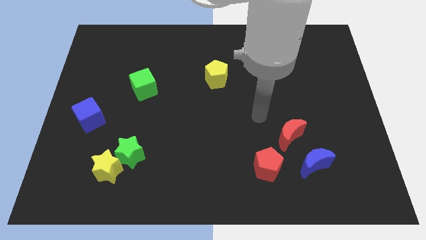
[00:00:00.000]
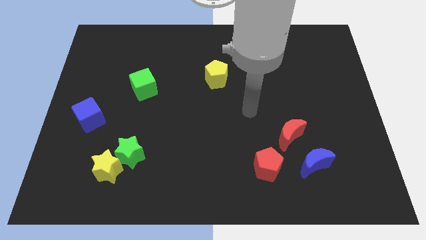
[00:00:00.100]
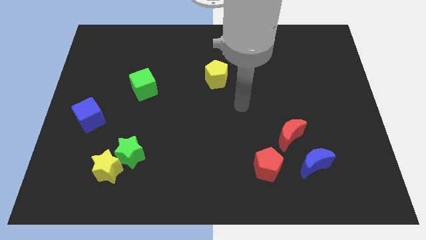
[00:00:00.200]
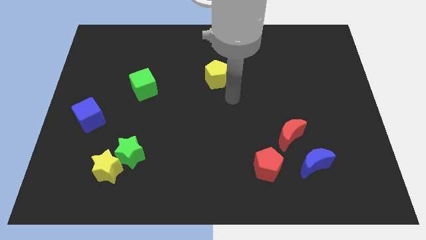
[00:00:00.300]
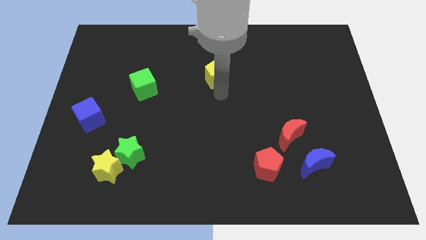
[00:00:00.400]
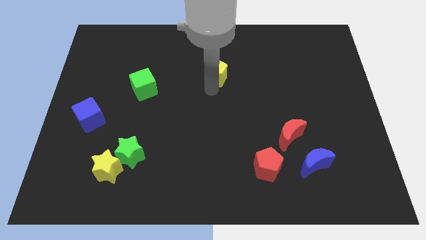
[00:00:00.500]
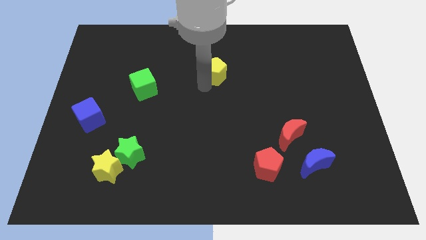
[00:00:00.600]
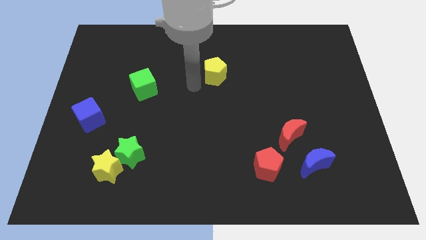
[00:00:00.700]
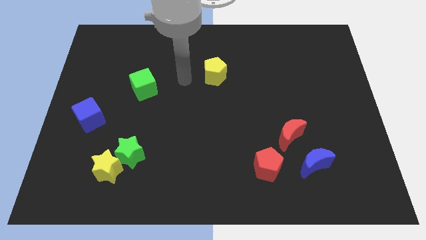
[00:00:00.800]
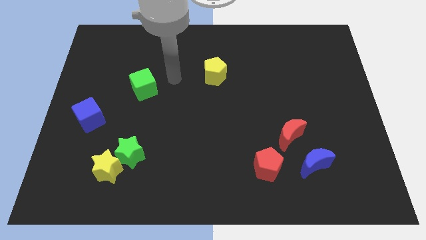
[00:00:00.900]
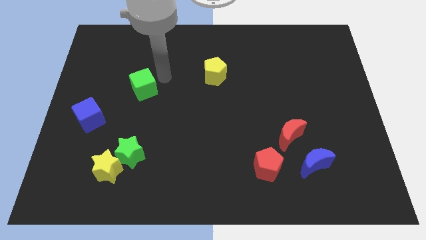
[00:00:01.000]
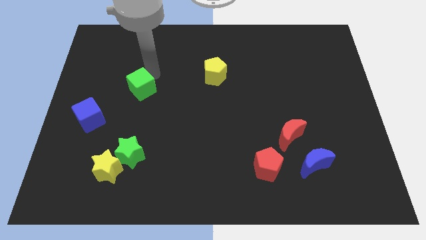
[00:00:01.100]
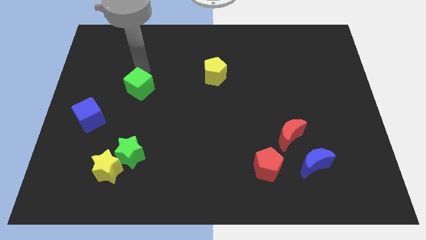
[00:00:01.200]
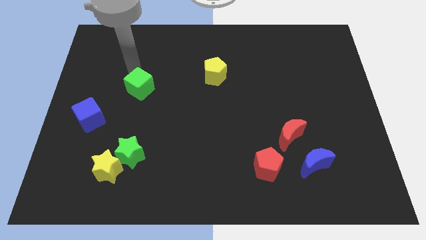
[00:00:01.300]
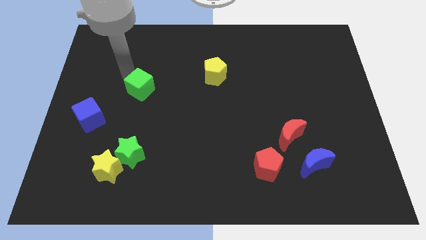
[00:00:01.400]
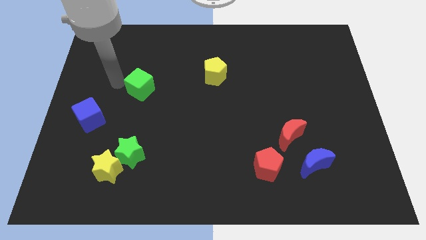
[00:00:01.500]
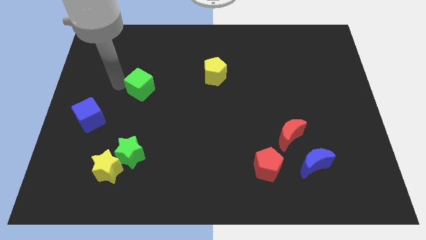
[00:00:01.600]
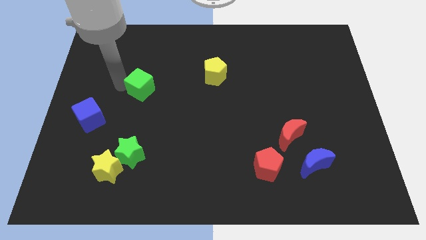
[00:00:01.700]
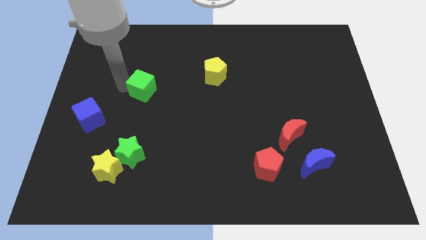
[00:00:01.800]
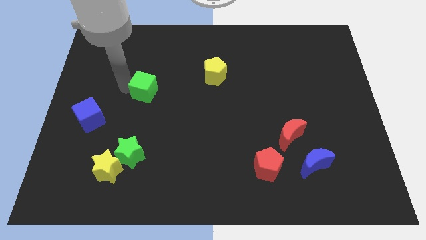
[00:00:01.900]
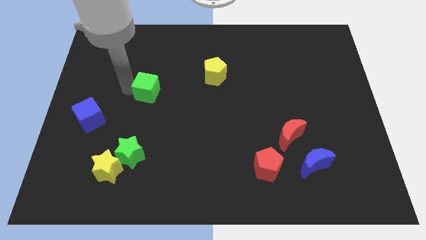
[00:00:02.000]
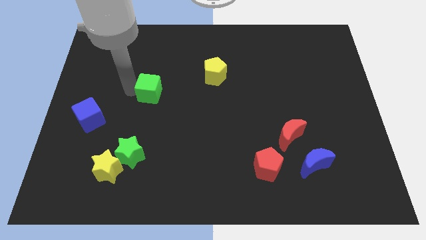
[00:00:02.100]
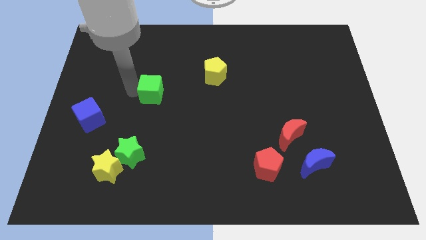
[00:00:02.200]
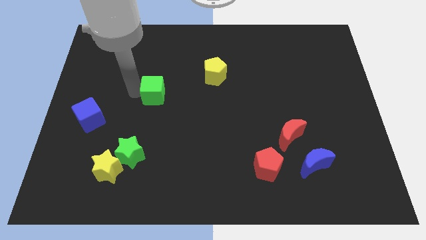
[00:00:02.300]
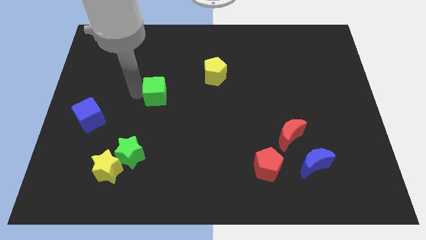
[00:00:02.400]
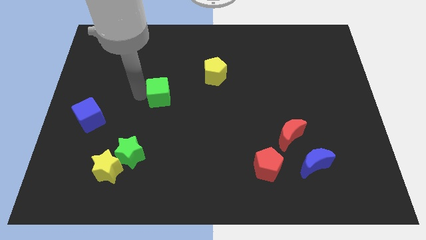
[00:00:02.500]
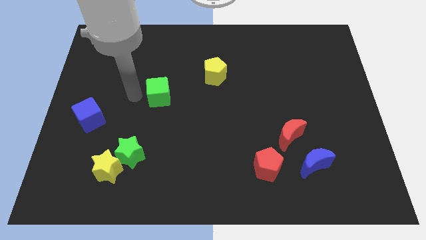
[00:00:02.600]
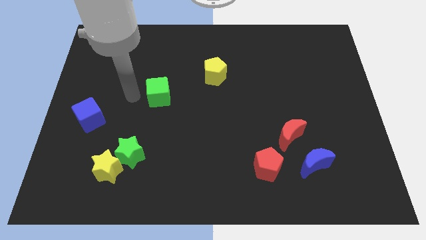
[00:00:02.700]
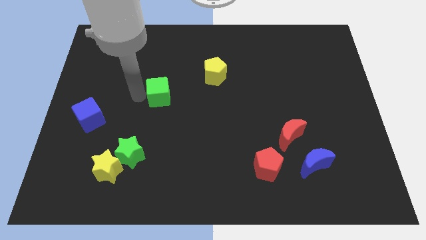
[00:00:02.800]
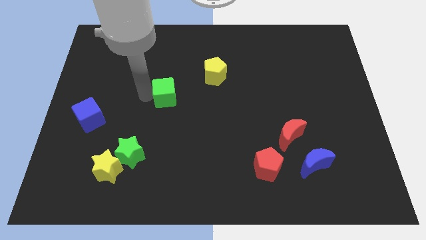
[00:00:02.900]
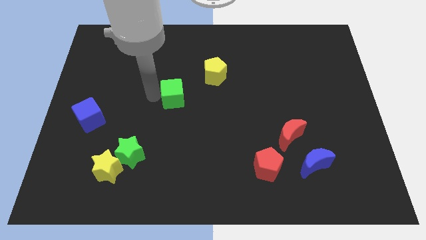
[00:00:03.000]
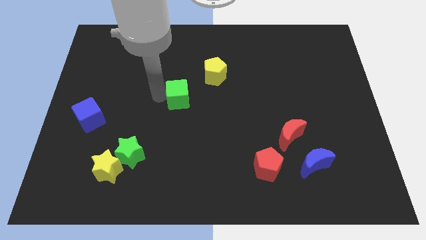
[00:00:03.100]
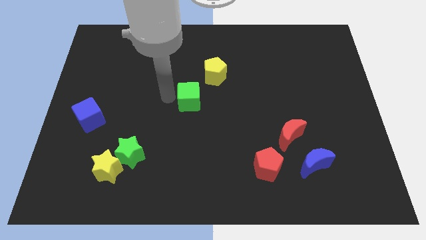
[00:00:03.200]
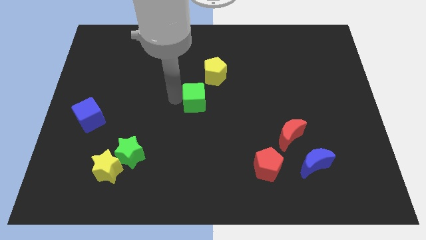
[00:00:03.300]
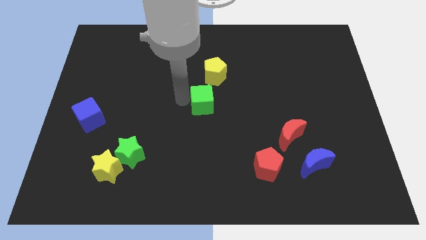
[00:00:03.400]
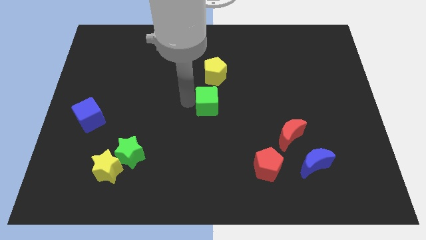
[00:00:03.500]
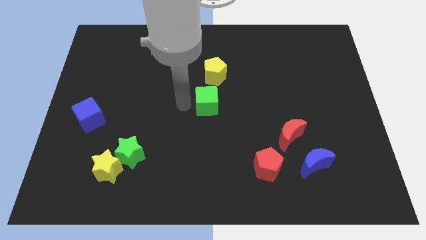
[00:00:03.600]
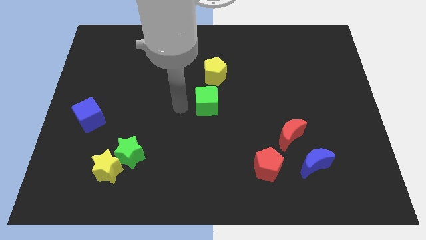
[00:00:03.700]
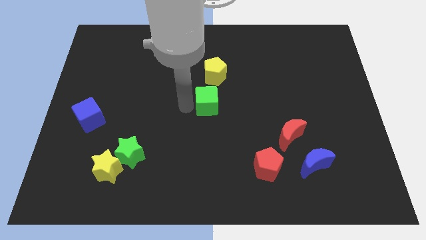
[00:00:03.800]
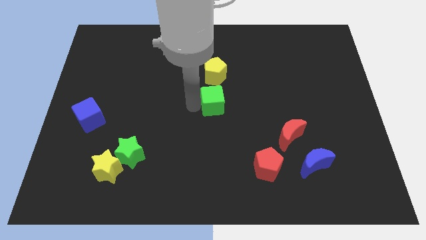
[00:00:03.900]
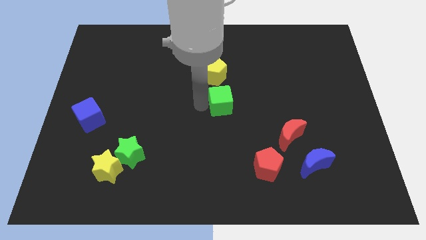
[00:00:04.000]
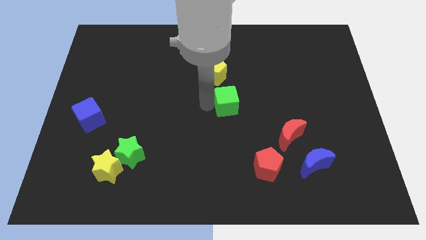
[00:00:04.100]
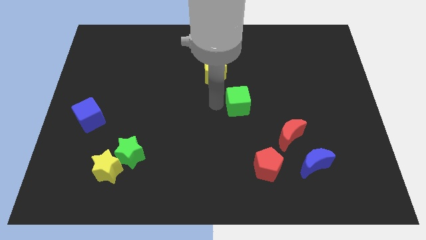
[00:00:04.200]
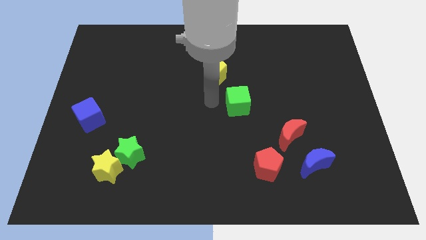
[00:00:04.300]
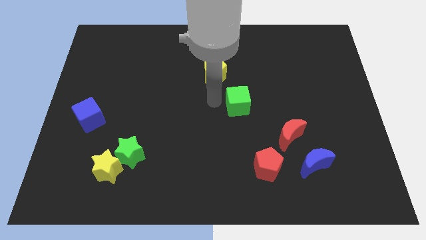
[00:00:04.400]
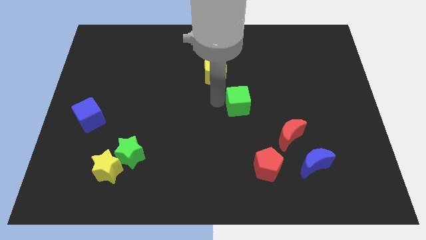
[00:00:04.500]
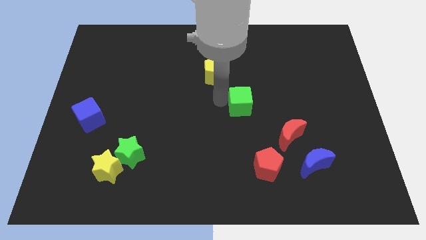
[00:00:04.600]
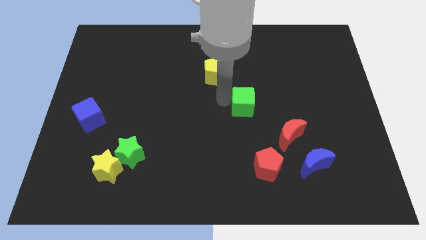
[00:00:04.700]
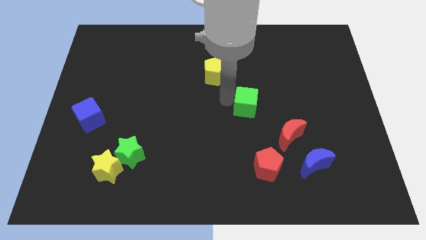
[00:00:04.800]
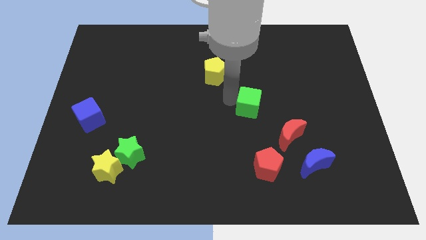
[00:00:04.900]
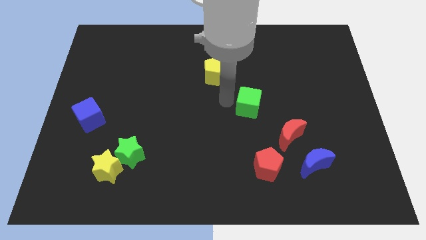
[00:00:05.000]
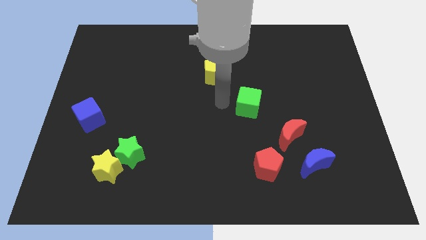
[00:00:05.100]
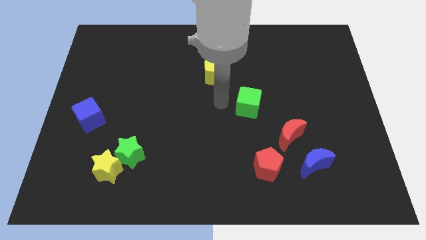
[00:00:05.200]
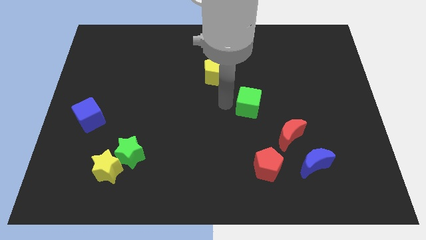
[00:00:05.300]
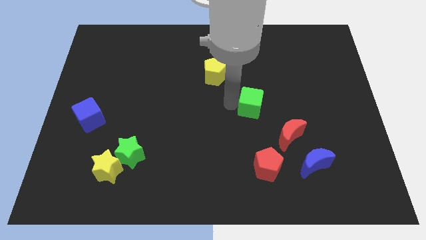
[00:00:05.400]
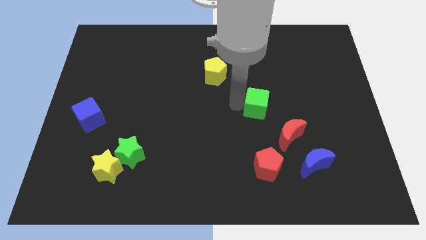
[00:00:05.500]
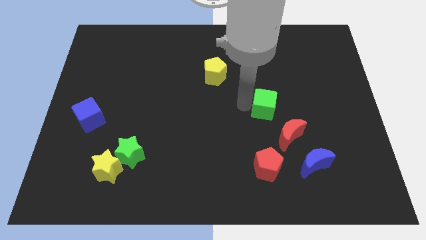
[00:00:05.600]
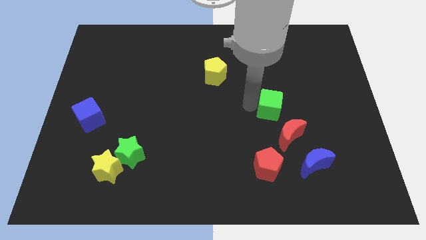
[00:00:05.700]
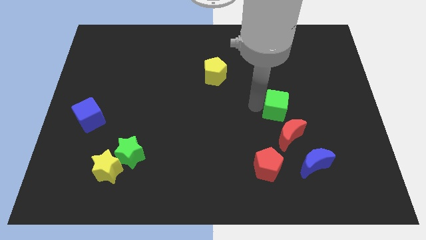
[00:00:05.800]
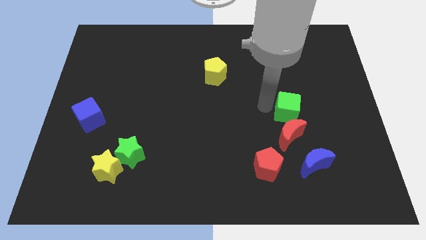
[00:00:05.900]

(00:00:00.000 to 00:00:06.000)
move the green cube diagonally up and to the right of the red moon
